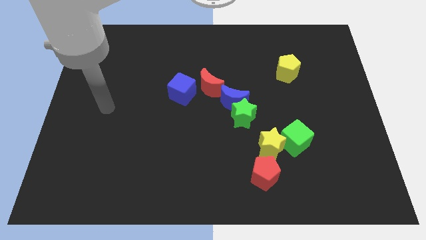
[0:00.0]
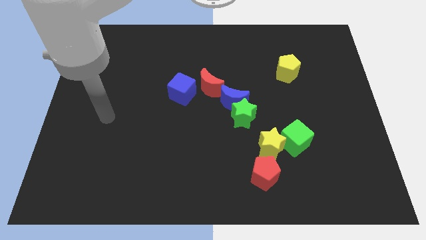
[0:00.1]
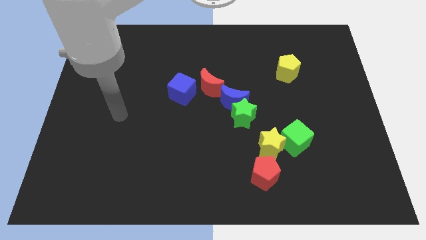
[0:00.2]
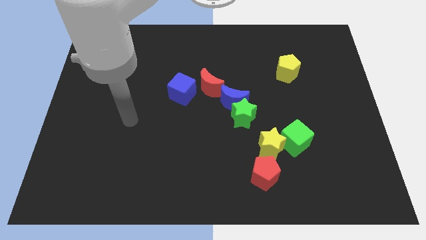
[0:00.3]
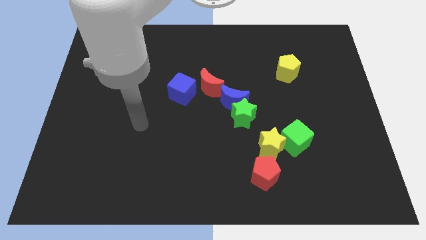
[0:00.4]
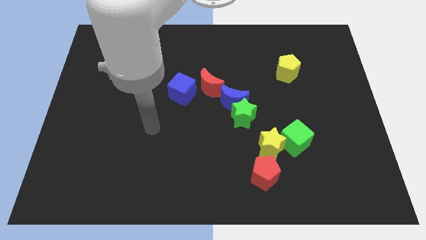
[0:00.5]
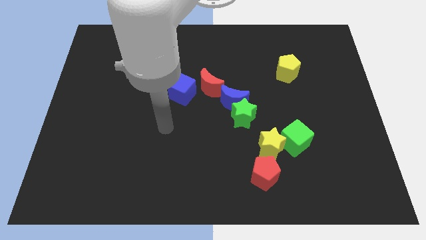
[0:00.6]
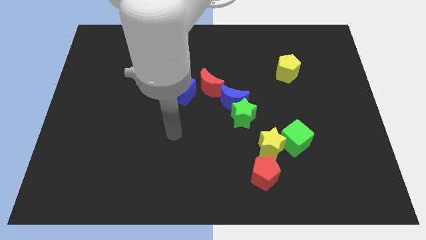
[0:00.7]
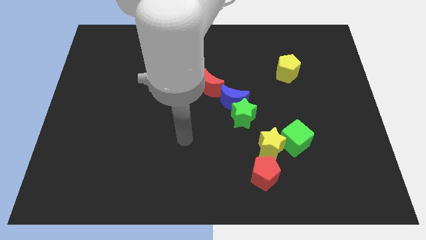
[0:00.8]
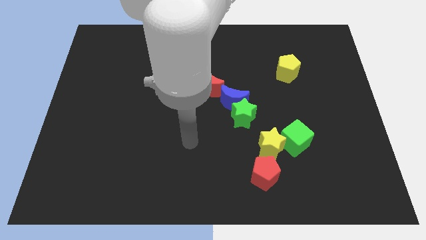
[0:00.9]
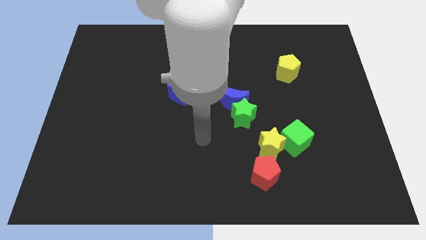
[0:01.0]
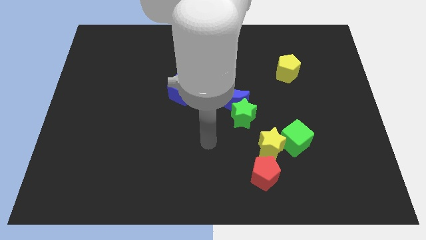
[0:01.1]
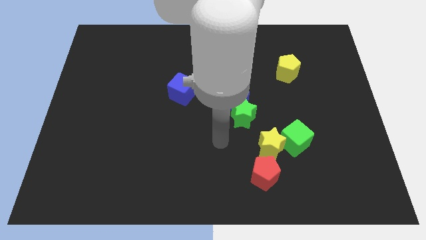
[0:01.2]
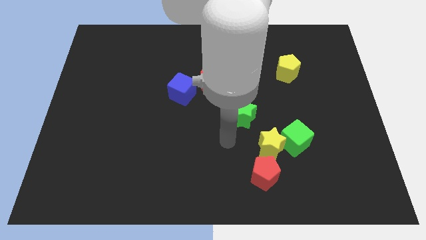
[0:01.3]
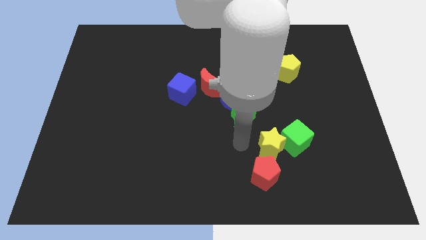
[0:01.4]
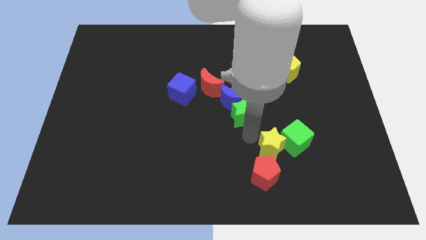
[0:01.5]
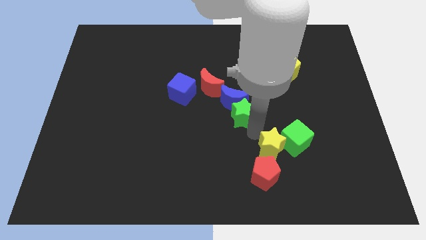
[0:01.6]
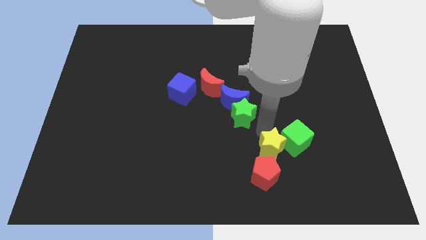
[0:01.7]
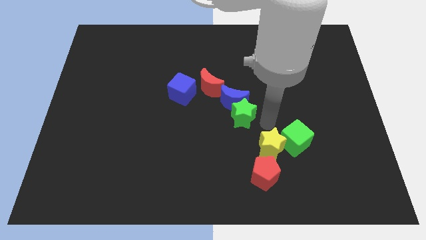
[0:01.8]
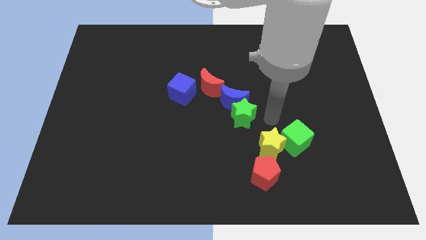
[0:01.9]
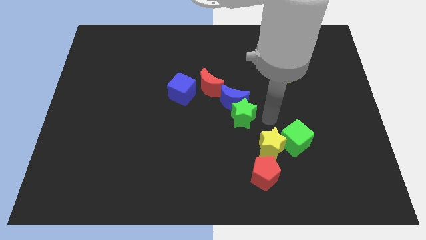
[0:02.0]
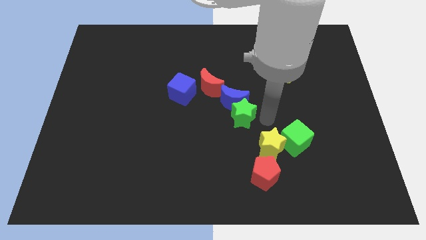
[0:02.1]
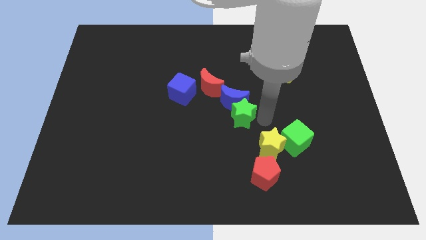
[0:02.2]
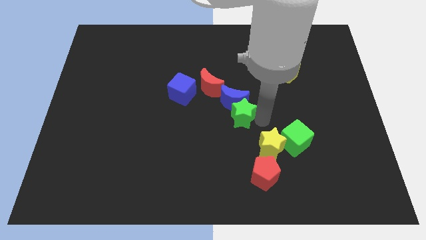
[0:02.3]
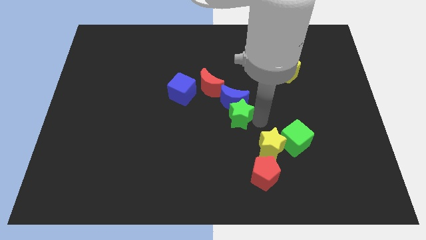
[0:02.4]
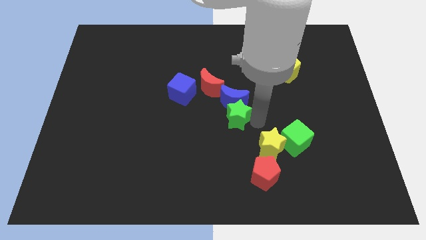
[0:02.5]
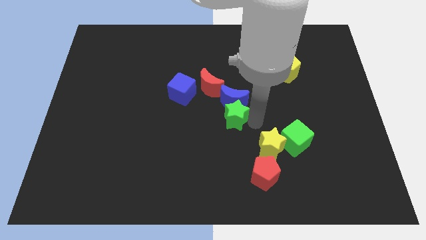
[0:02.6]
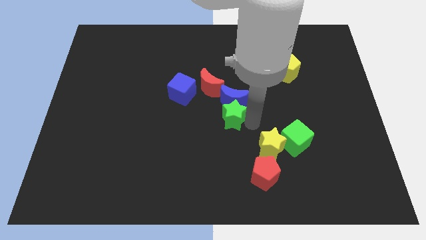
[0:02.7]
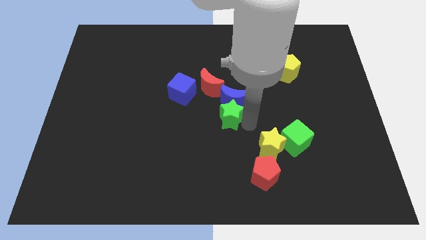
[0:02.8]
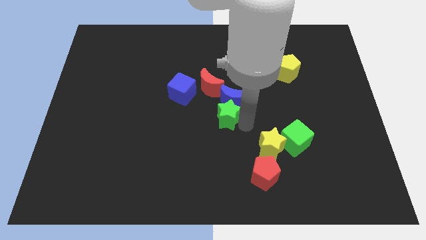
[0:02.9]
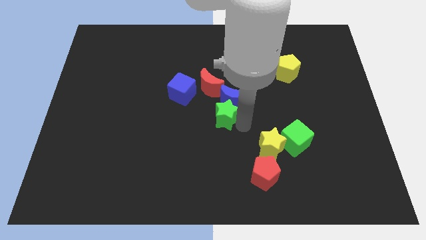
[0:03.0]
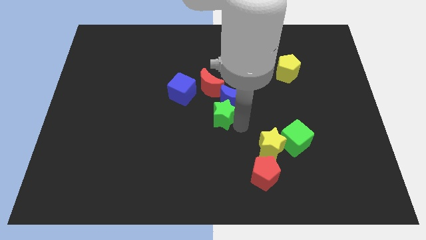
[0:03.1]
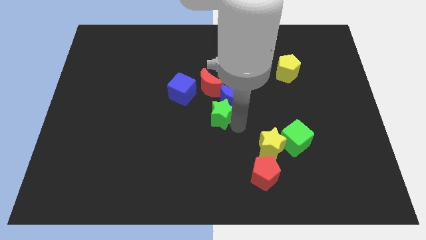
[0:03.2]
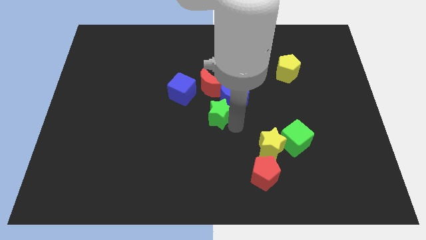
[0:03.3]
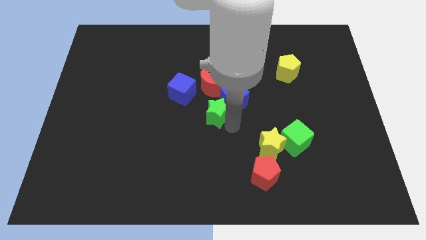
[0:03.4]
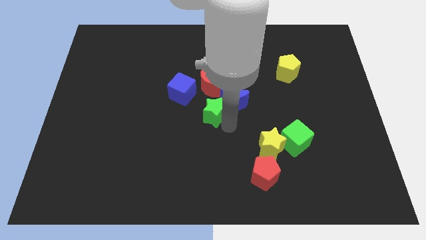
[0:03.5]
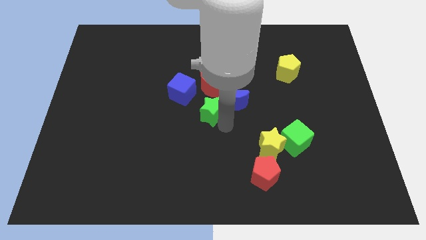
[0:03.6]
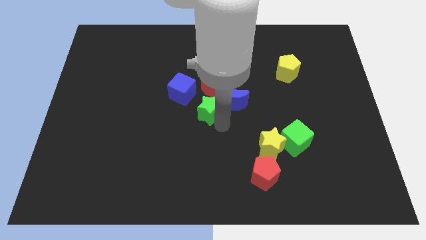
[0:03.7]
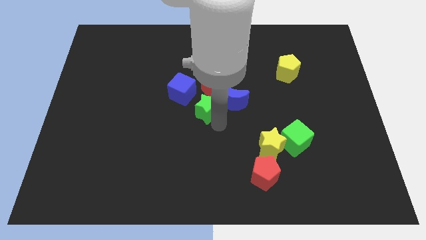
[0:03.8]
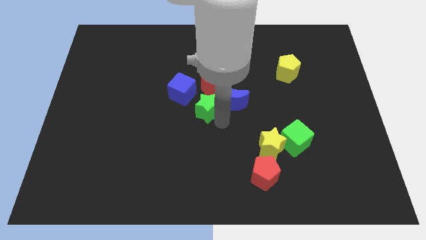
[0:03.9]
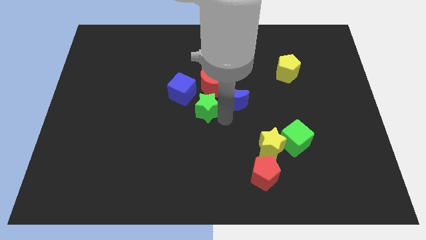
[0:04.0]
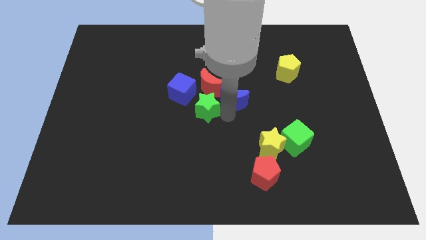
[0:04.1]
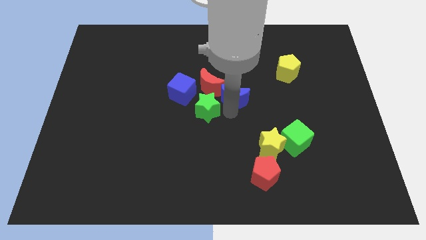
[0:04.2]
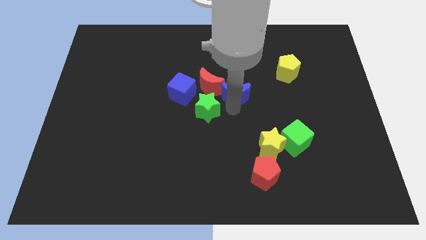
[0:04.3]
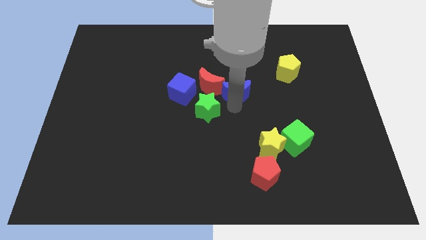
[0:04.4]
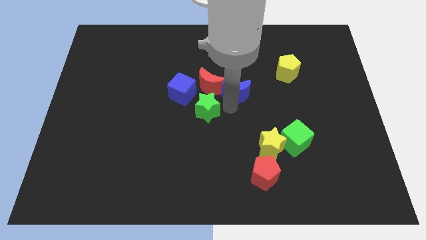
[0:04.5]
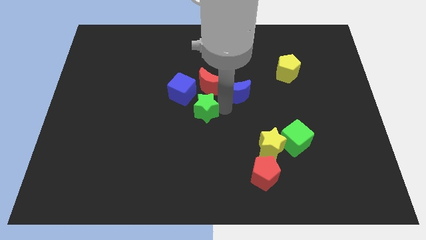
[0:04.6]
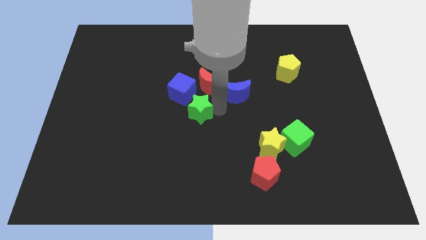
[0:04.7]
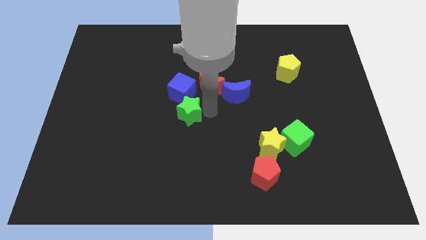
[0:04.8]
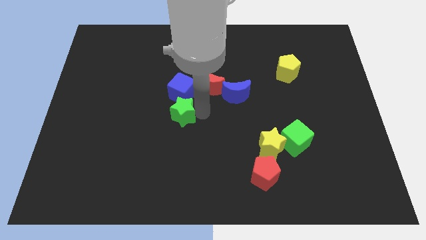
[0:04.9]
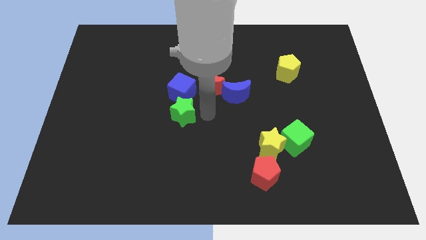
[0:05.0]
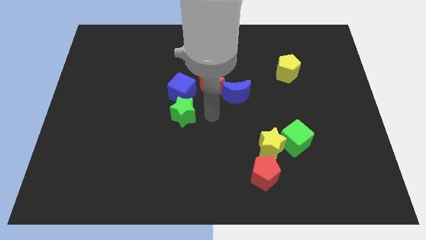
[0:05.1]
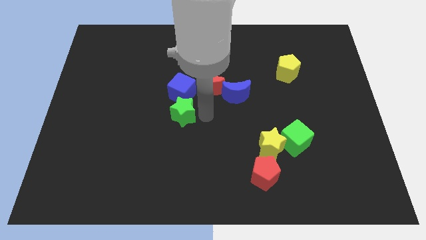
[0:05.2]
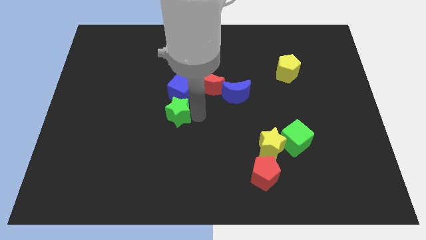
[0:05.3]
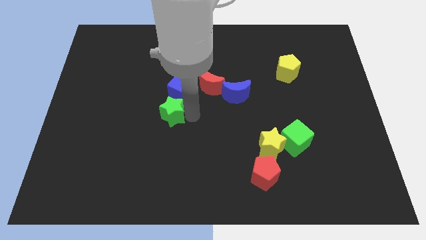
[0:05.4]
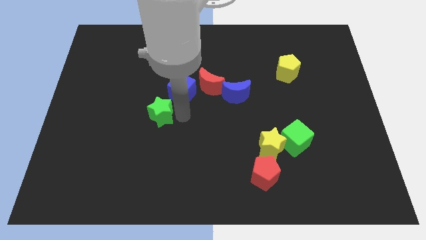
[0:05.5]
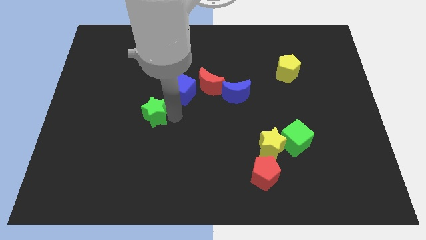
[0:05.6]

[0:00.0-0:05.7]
push the green star to the left

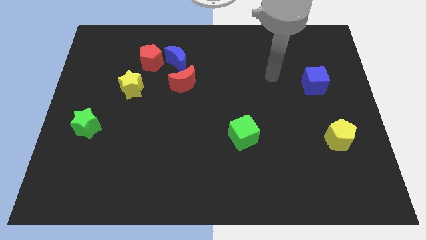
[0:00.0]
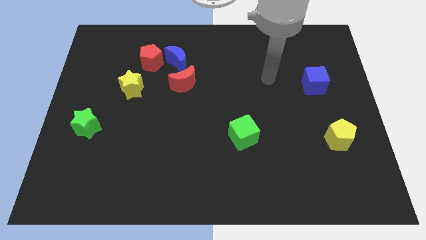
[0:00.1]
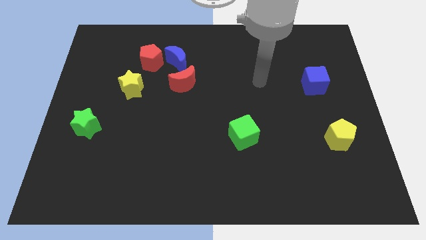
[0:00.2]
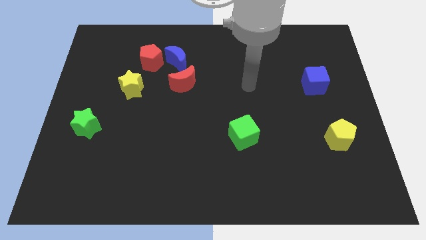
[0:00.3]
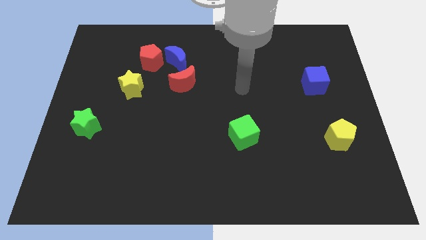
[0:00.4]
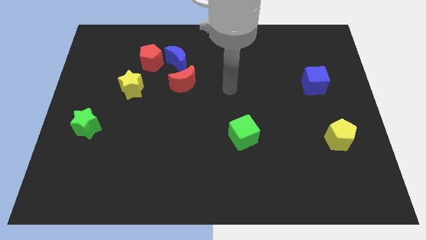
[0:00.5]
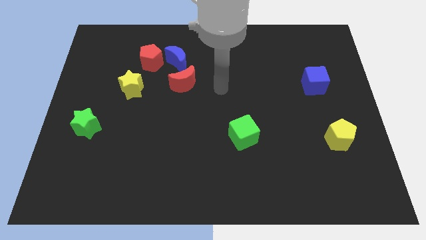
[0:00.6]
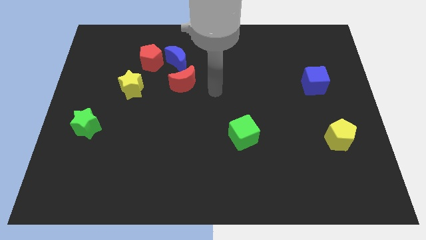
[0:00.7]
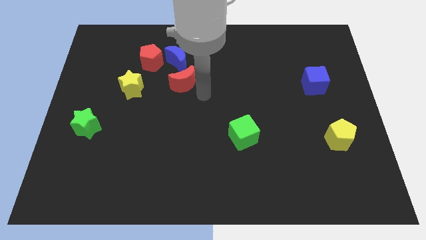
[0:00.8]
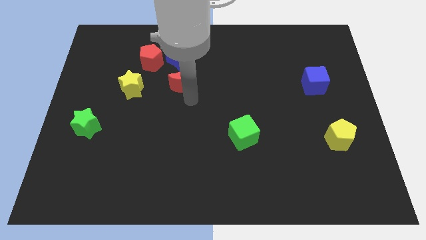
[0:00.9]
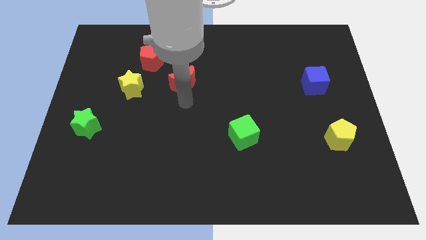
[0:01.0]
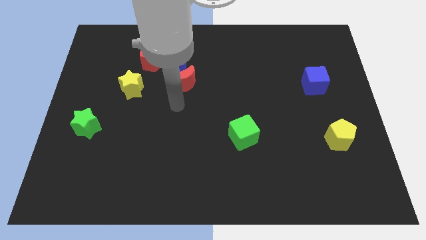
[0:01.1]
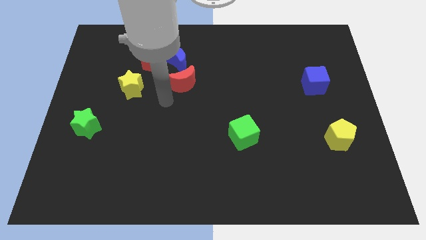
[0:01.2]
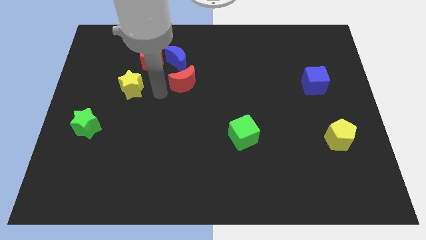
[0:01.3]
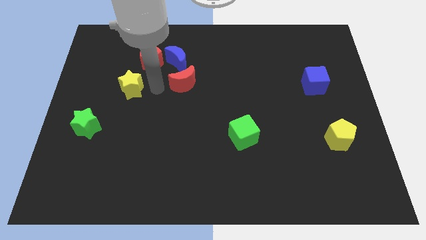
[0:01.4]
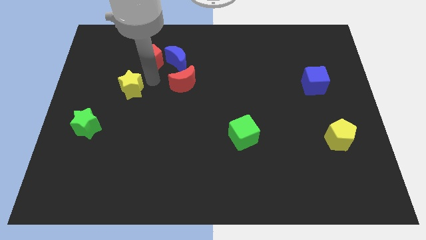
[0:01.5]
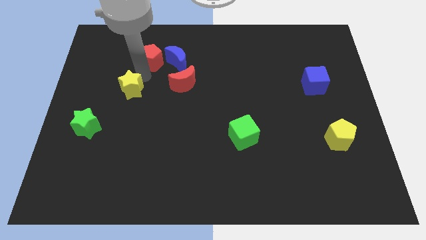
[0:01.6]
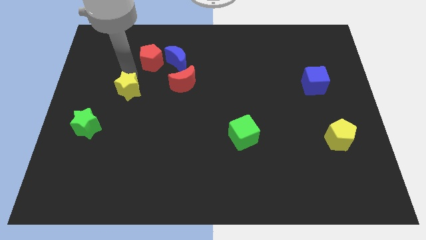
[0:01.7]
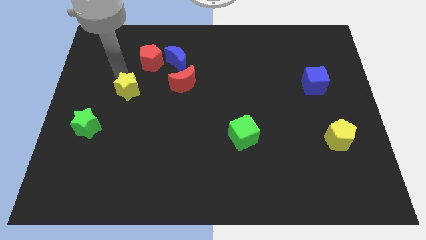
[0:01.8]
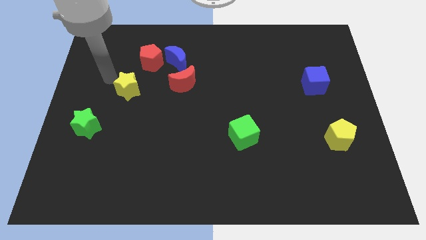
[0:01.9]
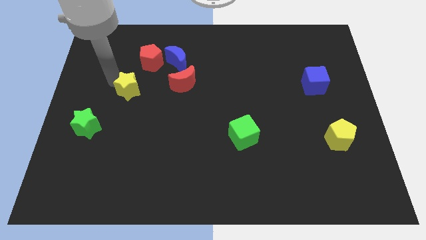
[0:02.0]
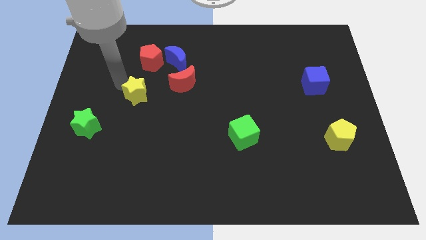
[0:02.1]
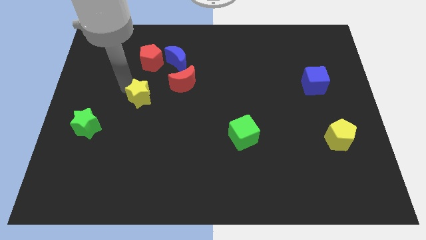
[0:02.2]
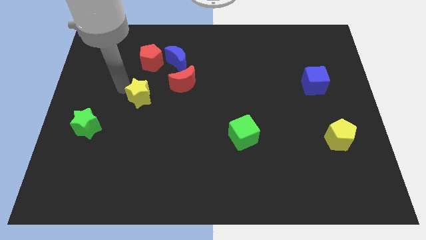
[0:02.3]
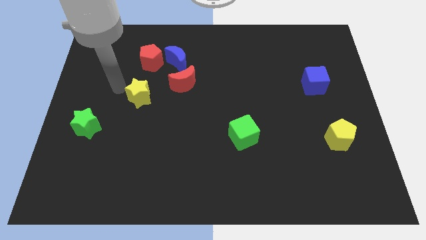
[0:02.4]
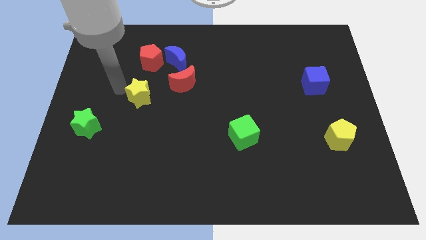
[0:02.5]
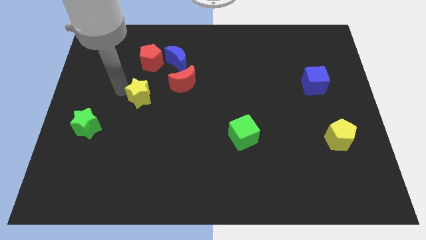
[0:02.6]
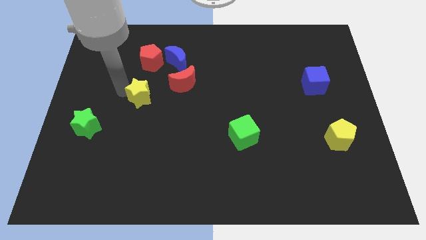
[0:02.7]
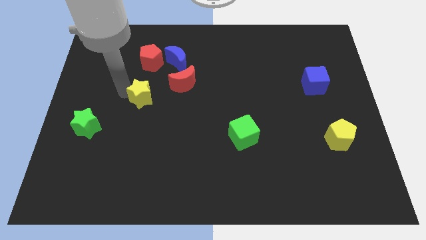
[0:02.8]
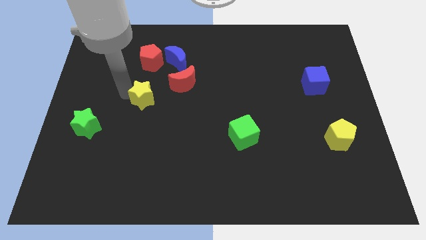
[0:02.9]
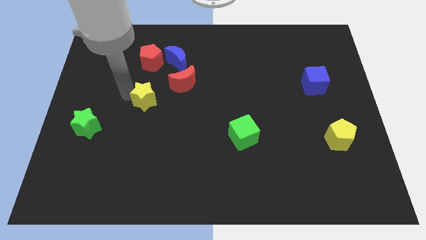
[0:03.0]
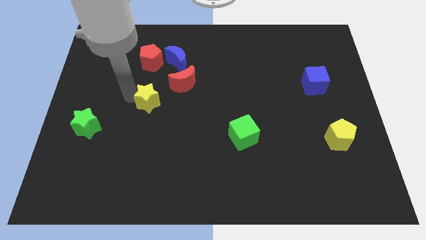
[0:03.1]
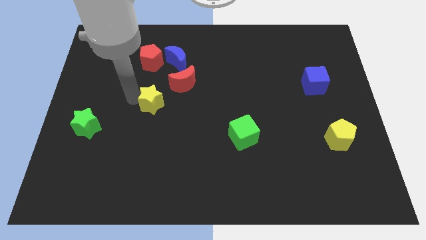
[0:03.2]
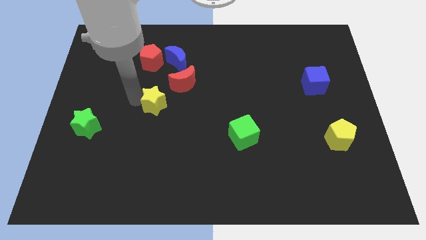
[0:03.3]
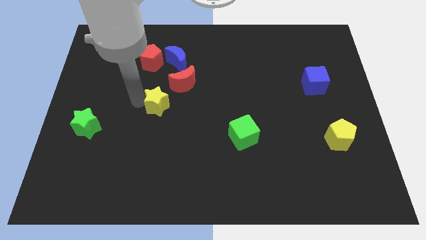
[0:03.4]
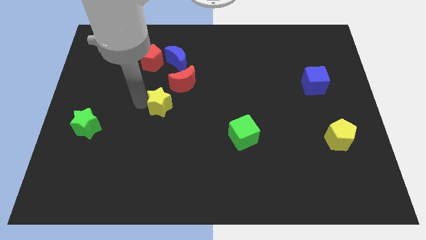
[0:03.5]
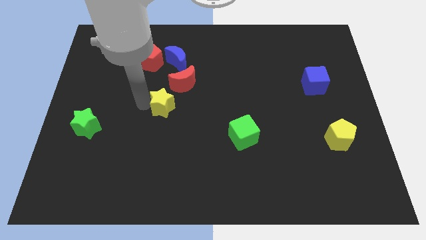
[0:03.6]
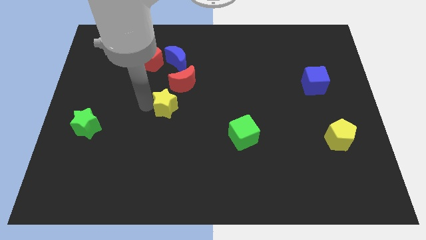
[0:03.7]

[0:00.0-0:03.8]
push the yellow star slightly right
